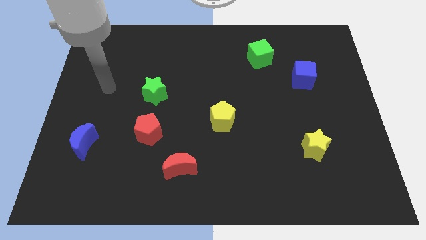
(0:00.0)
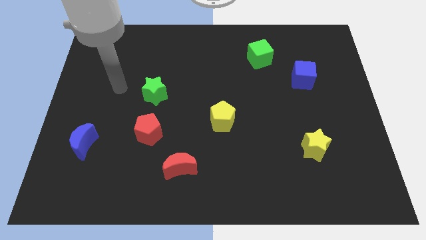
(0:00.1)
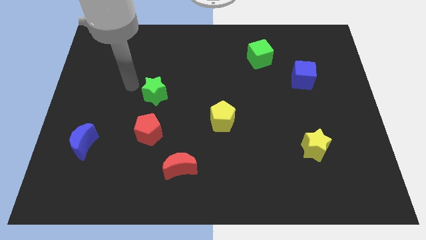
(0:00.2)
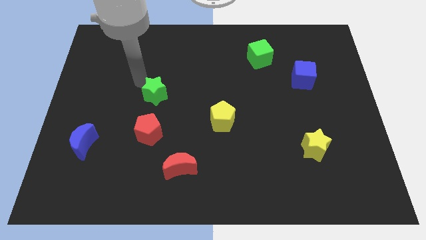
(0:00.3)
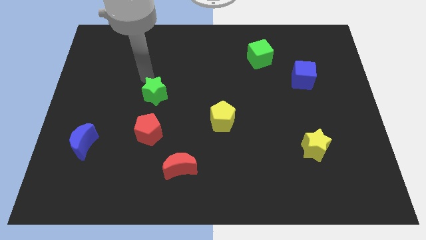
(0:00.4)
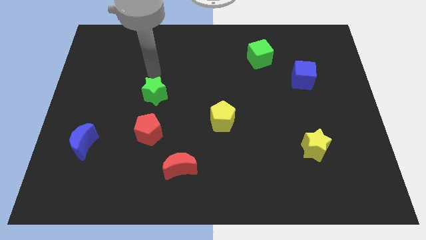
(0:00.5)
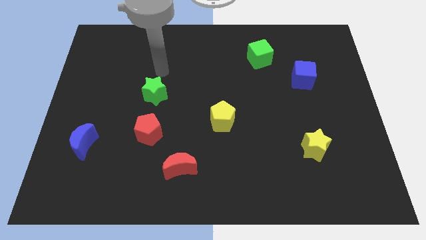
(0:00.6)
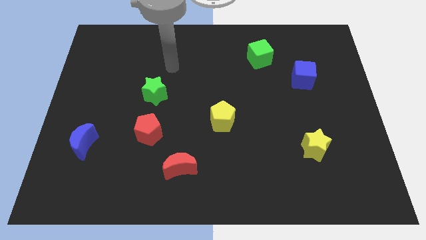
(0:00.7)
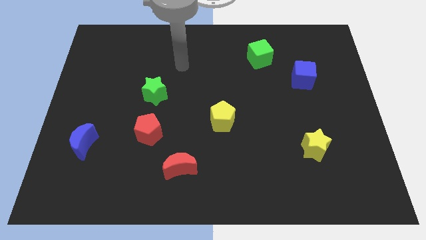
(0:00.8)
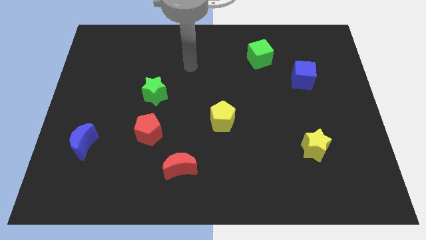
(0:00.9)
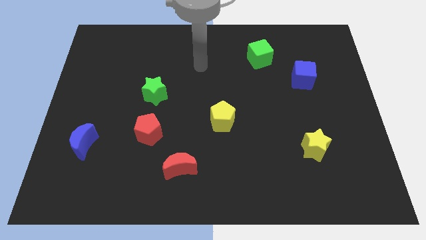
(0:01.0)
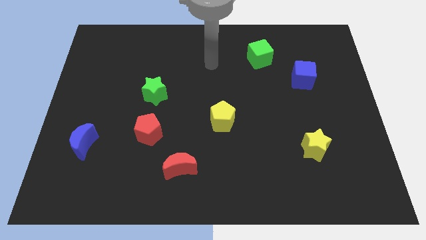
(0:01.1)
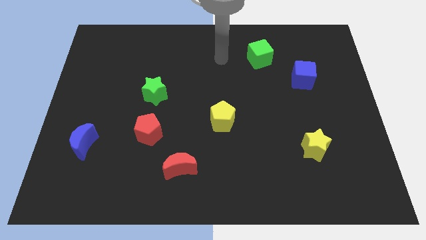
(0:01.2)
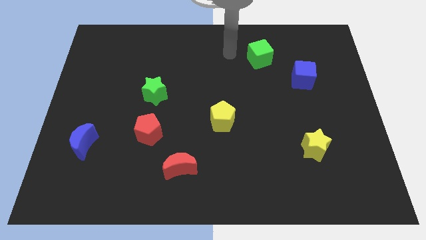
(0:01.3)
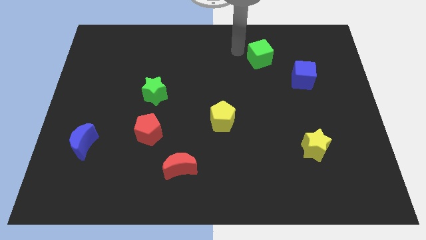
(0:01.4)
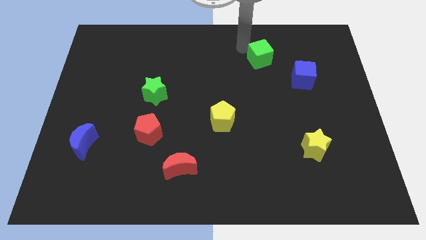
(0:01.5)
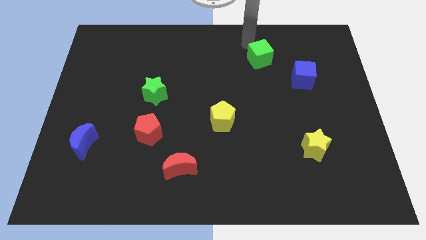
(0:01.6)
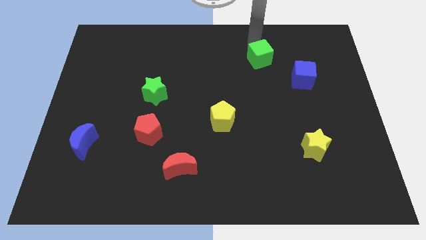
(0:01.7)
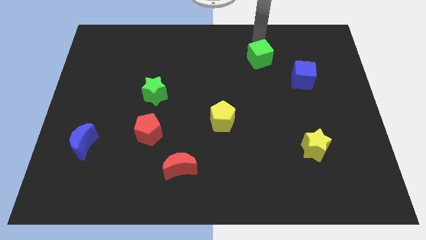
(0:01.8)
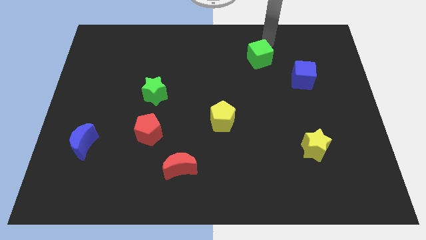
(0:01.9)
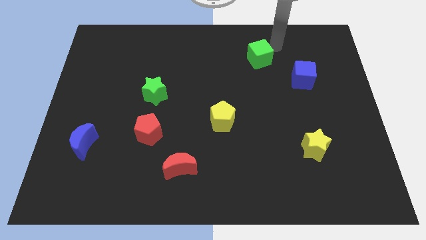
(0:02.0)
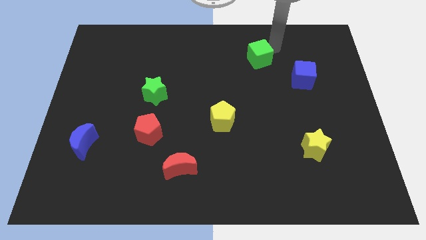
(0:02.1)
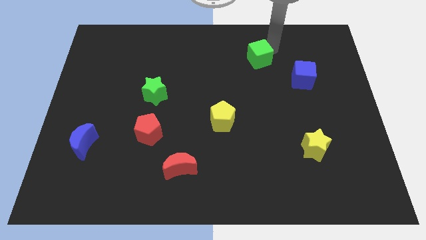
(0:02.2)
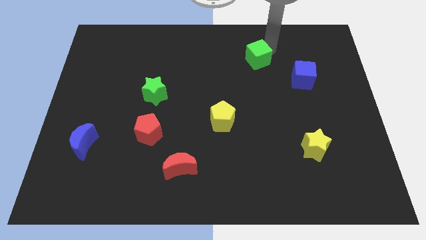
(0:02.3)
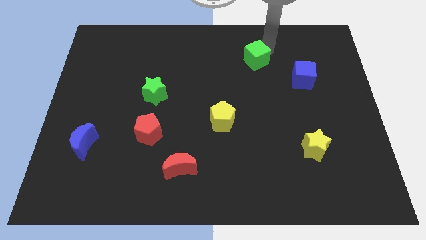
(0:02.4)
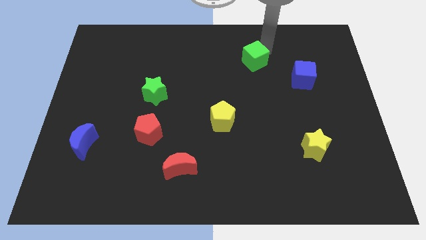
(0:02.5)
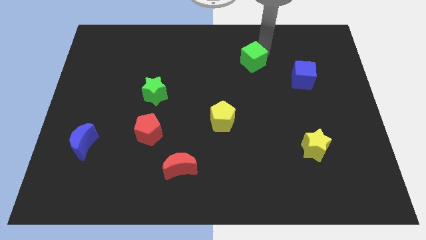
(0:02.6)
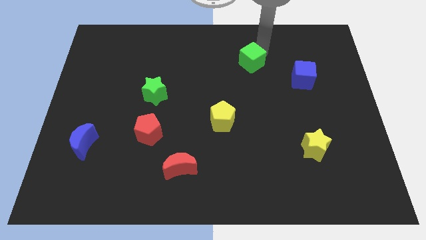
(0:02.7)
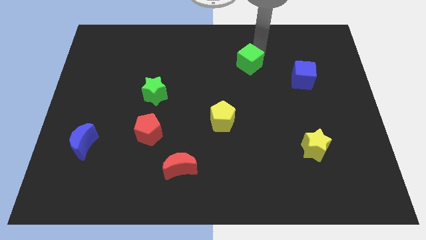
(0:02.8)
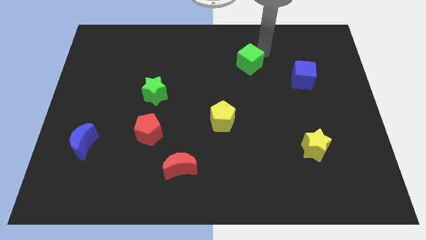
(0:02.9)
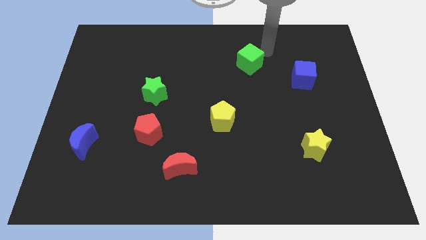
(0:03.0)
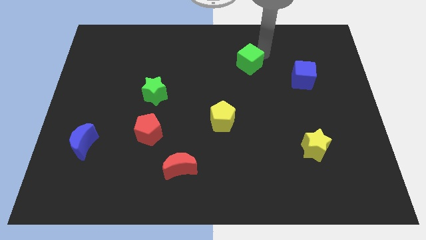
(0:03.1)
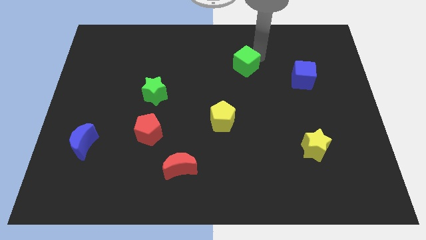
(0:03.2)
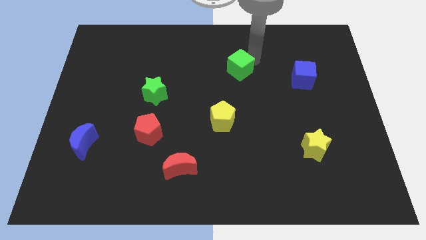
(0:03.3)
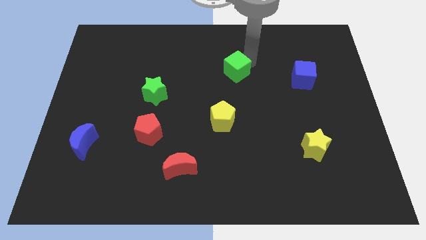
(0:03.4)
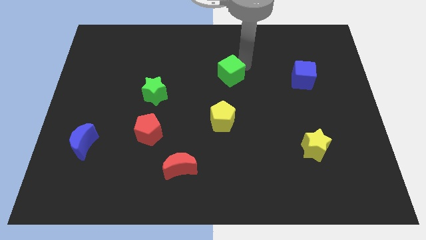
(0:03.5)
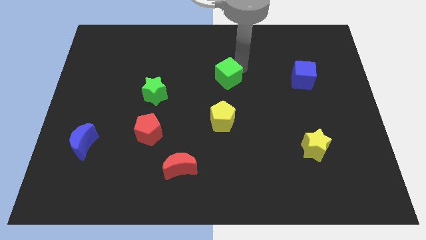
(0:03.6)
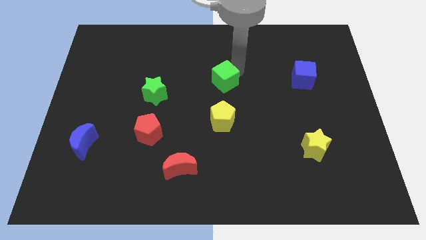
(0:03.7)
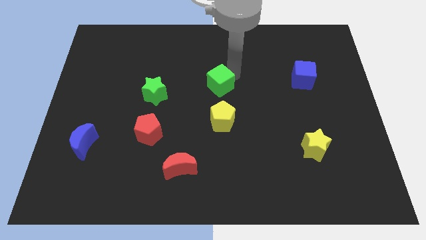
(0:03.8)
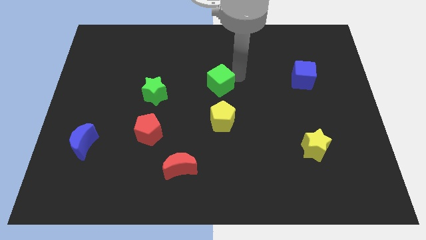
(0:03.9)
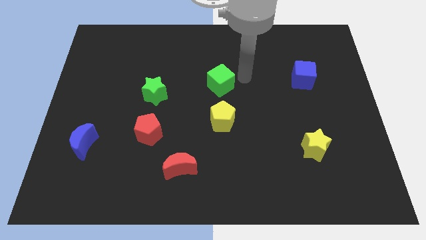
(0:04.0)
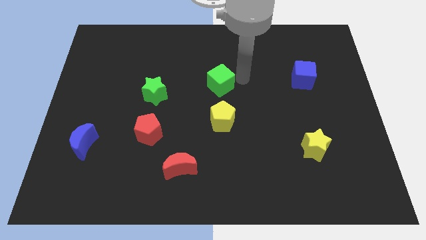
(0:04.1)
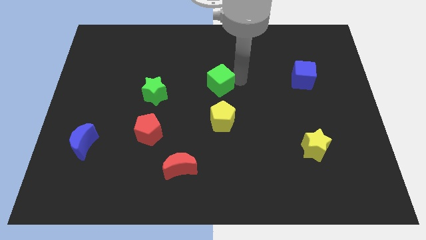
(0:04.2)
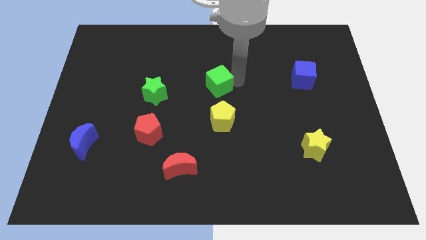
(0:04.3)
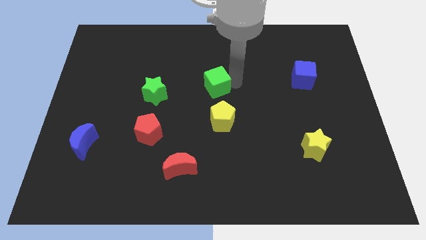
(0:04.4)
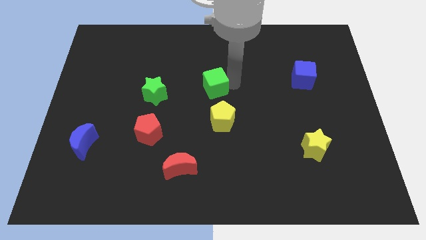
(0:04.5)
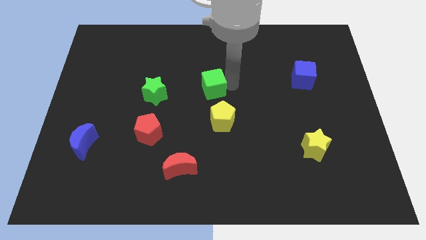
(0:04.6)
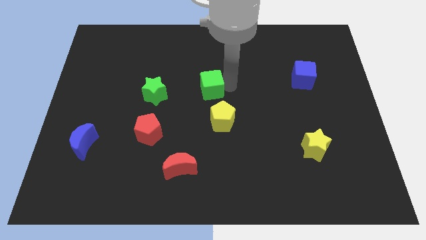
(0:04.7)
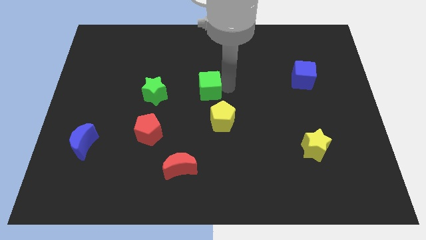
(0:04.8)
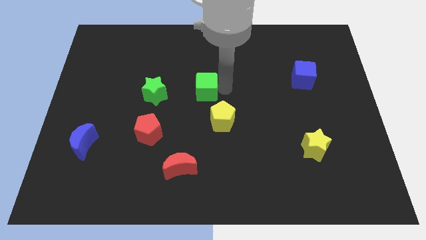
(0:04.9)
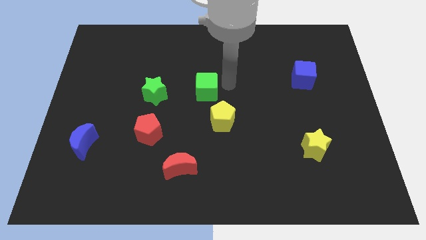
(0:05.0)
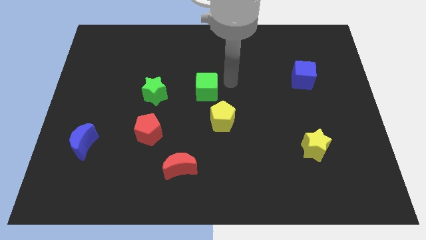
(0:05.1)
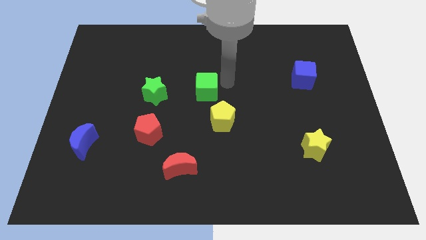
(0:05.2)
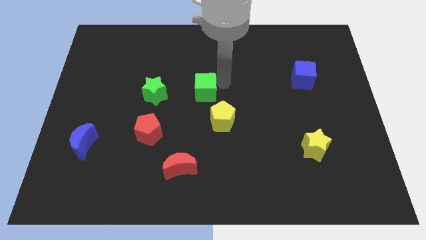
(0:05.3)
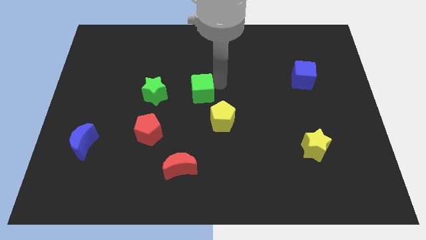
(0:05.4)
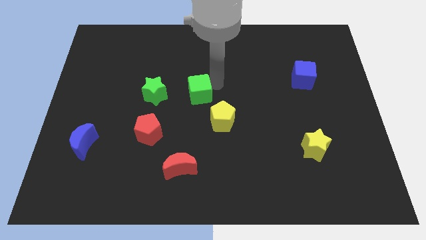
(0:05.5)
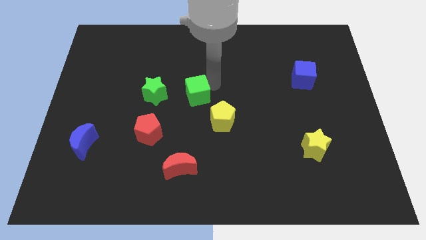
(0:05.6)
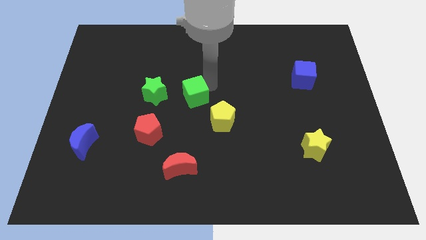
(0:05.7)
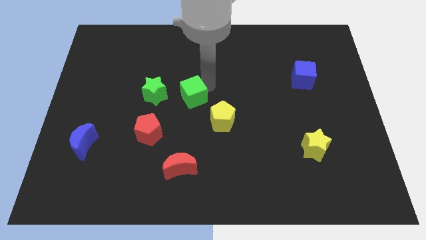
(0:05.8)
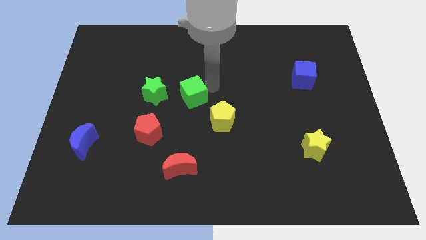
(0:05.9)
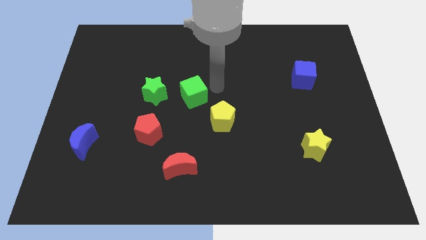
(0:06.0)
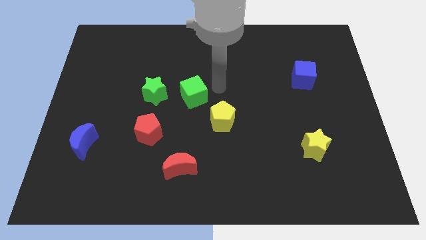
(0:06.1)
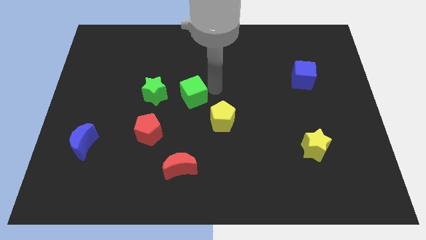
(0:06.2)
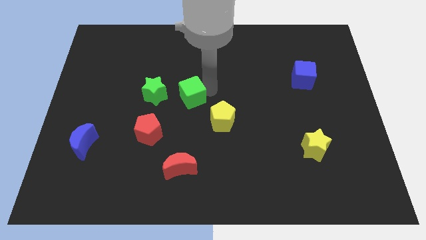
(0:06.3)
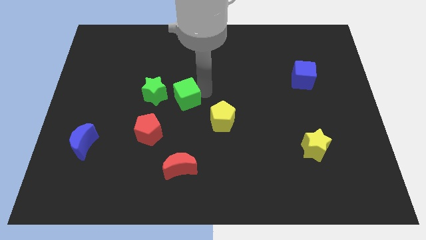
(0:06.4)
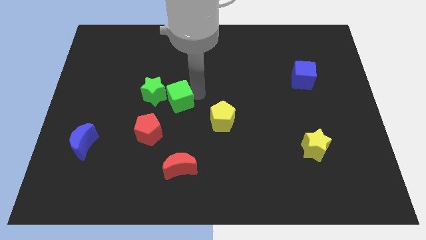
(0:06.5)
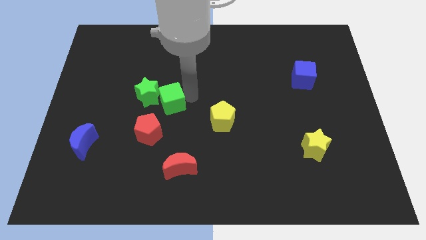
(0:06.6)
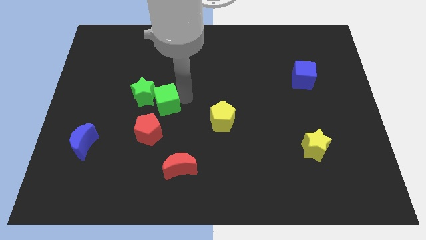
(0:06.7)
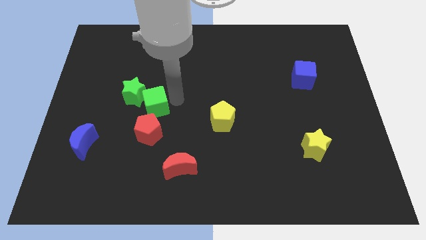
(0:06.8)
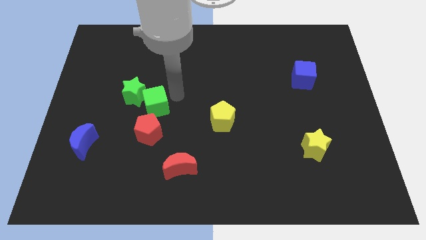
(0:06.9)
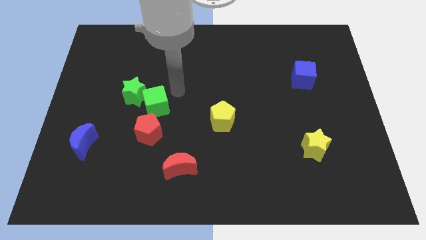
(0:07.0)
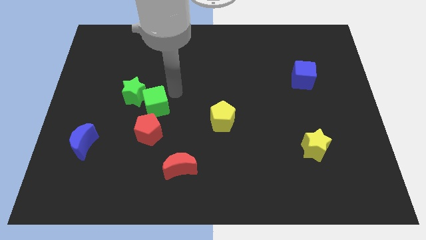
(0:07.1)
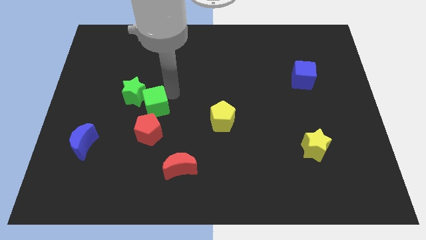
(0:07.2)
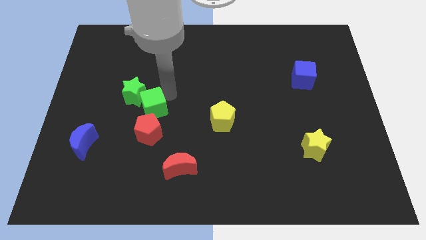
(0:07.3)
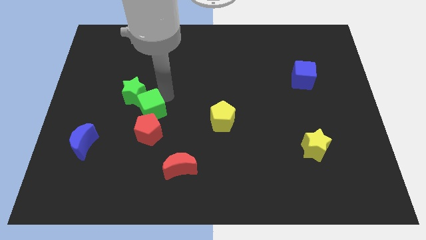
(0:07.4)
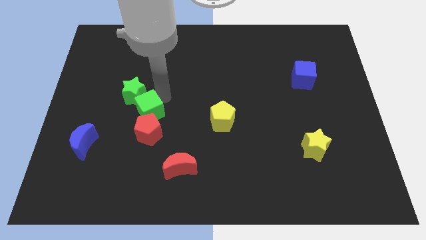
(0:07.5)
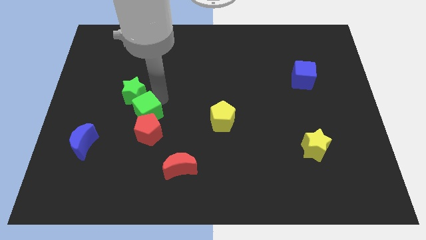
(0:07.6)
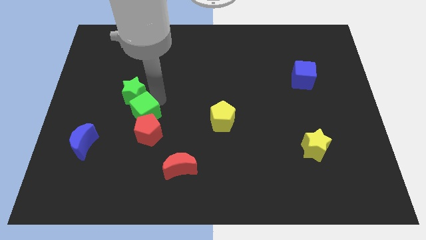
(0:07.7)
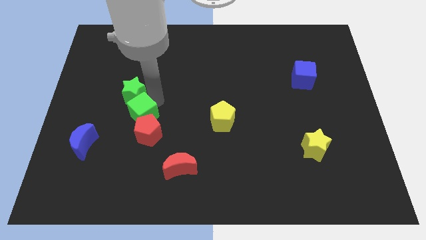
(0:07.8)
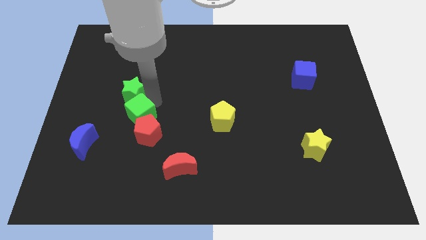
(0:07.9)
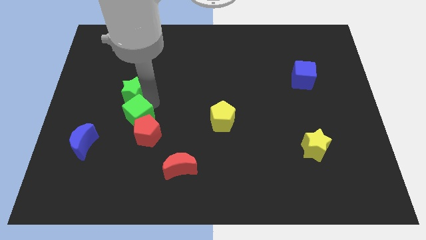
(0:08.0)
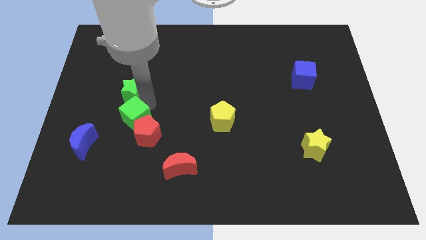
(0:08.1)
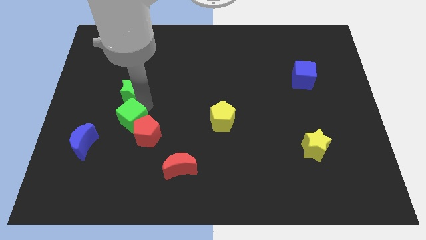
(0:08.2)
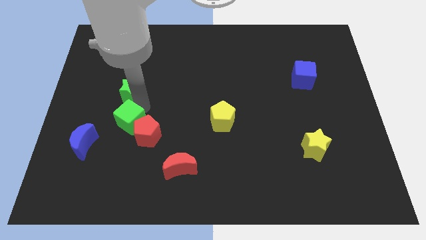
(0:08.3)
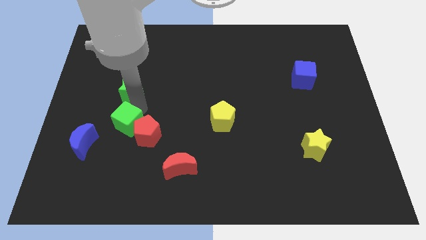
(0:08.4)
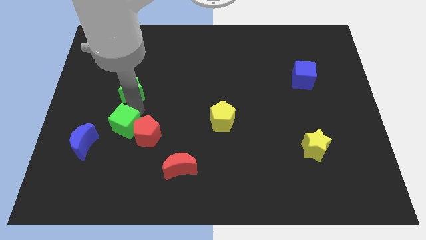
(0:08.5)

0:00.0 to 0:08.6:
put the green cube just right of the blue moon
